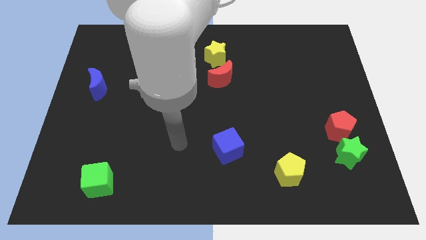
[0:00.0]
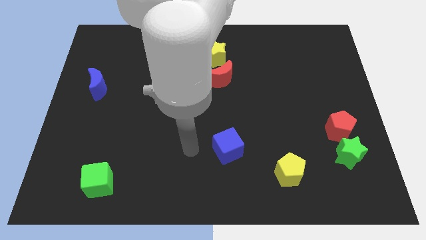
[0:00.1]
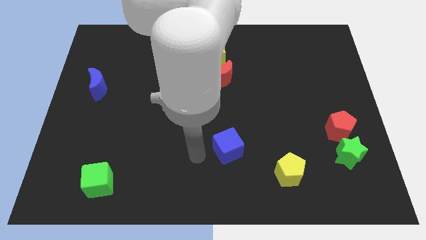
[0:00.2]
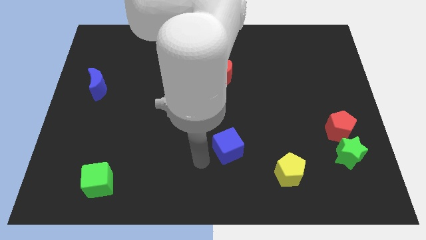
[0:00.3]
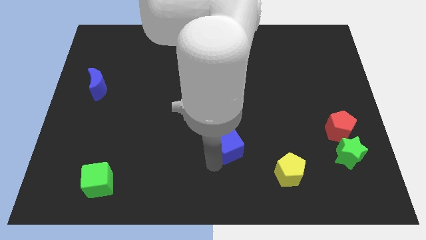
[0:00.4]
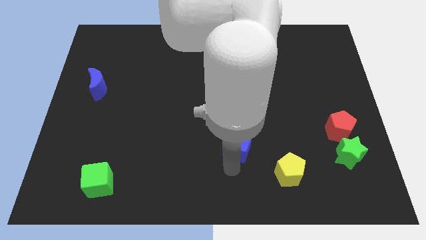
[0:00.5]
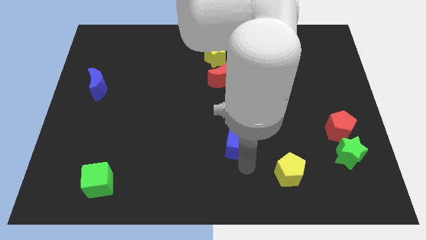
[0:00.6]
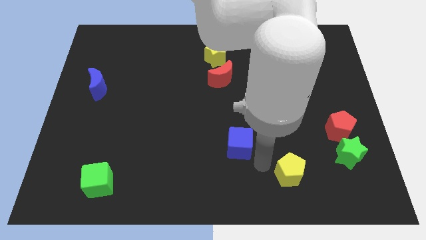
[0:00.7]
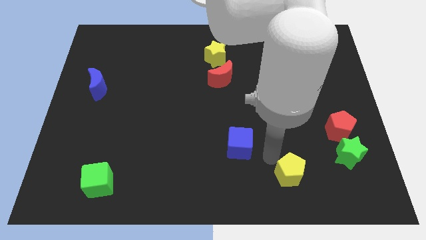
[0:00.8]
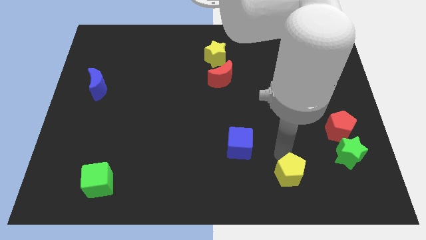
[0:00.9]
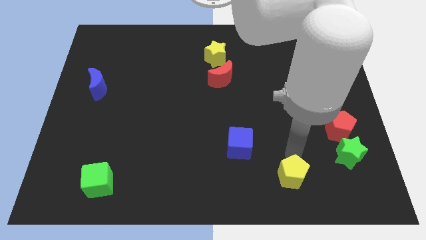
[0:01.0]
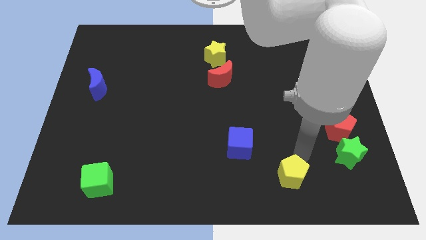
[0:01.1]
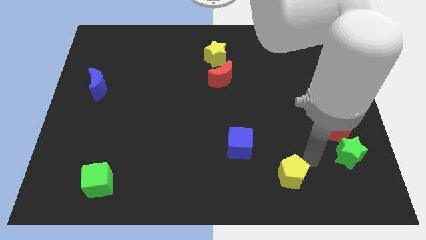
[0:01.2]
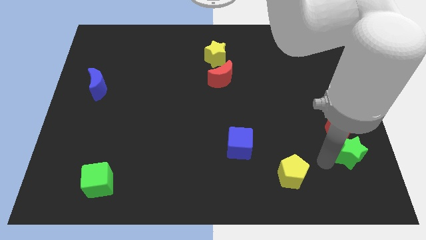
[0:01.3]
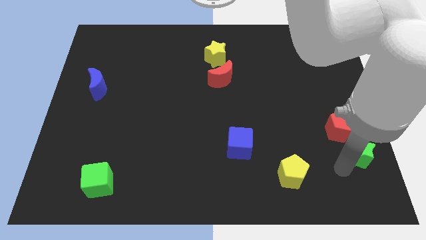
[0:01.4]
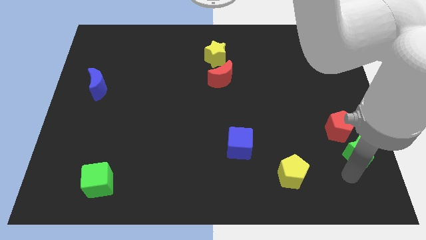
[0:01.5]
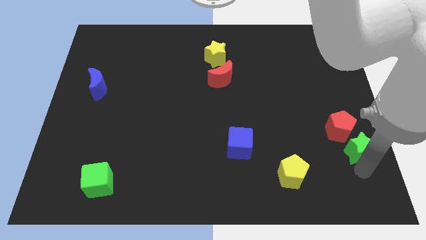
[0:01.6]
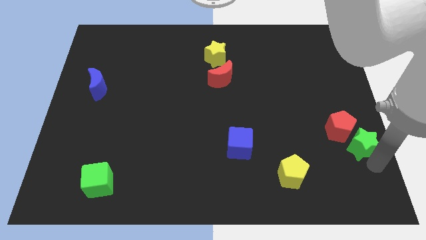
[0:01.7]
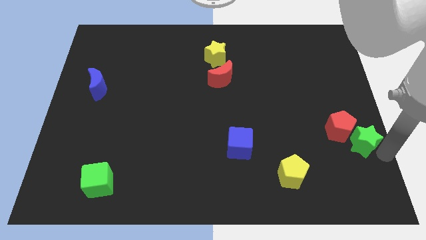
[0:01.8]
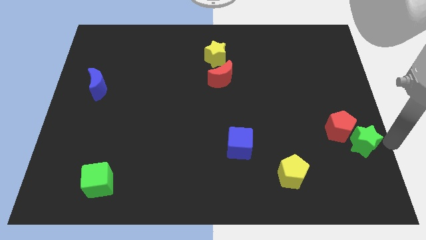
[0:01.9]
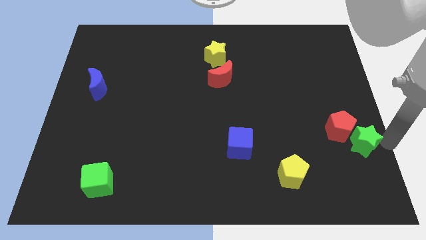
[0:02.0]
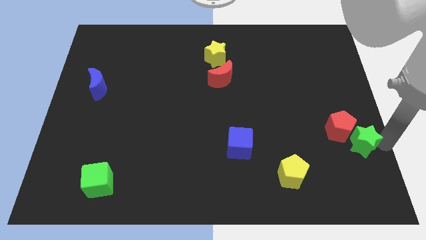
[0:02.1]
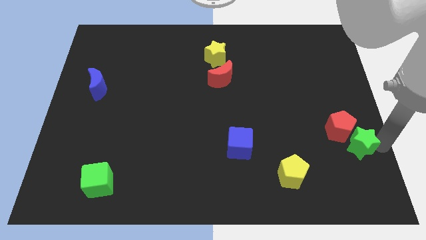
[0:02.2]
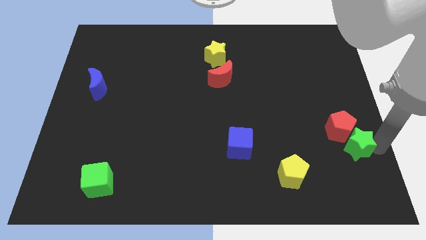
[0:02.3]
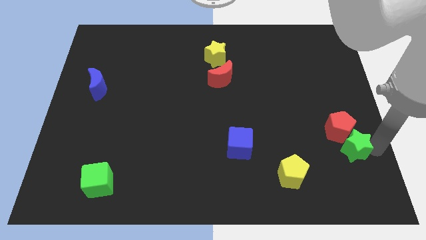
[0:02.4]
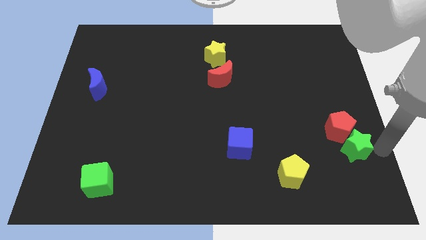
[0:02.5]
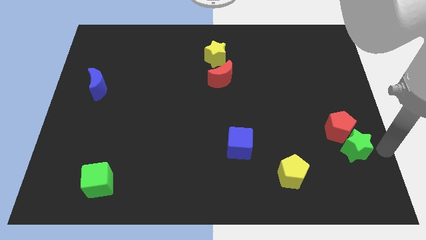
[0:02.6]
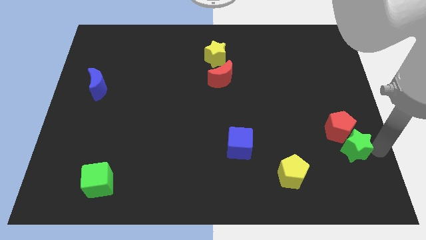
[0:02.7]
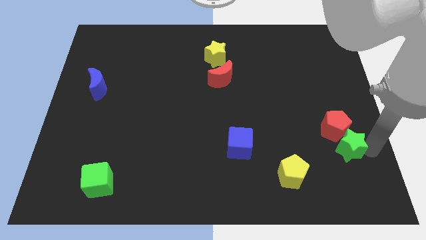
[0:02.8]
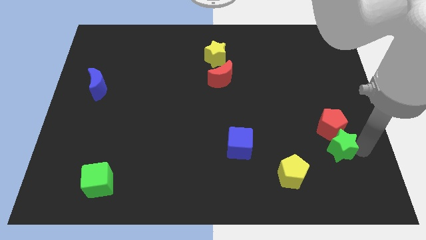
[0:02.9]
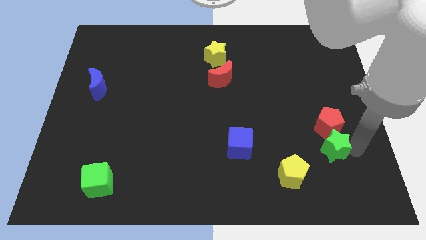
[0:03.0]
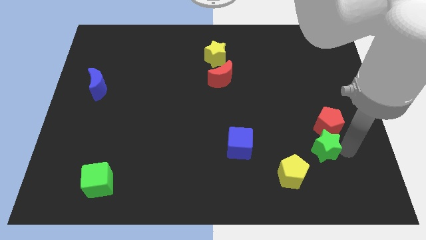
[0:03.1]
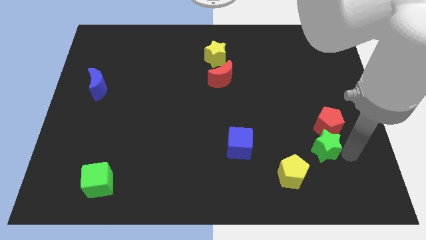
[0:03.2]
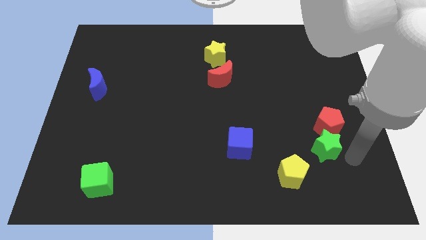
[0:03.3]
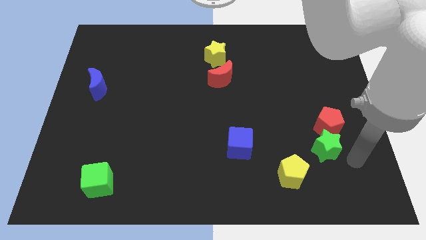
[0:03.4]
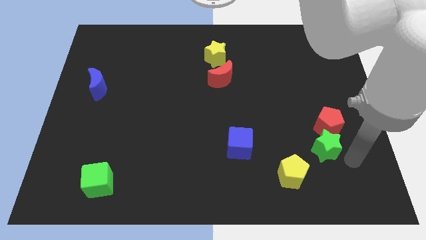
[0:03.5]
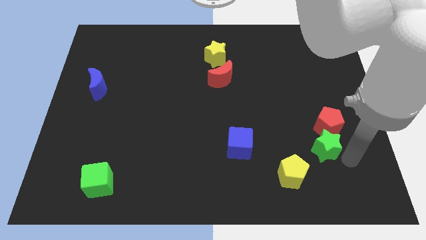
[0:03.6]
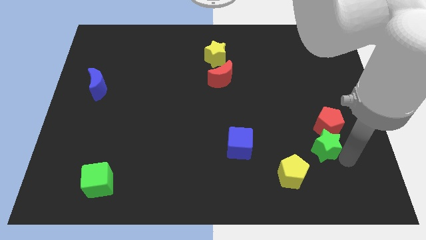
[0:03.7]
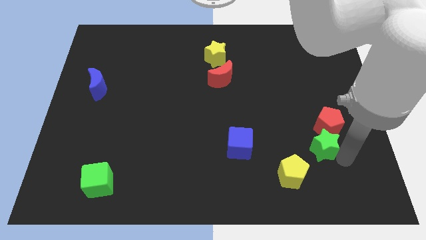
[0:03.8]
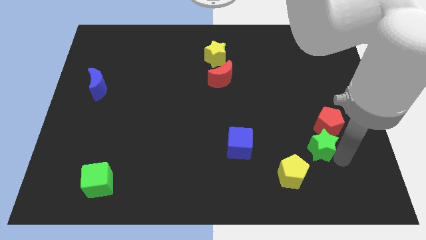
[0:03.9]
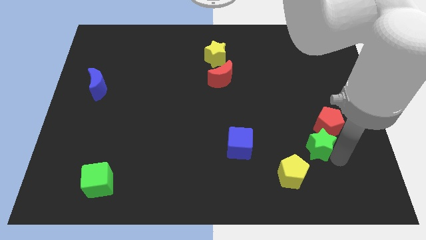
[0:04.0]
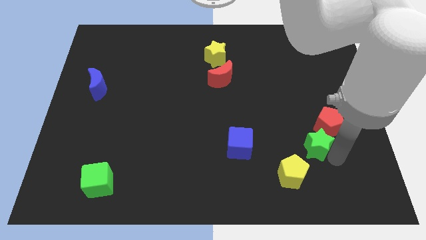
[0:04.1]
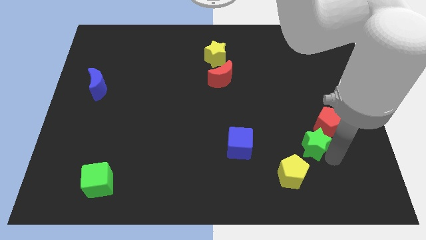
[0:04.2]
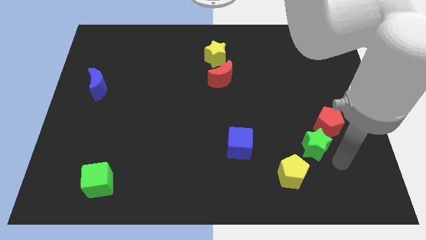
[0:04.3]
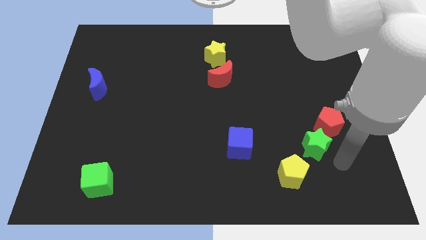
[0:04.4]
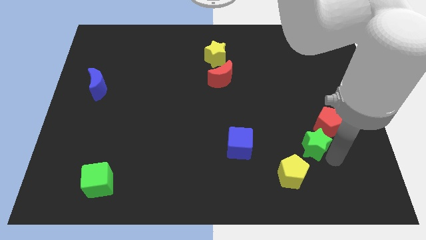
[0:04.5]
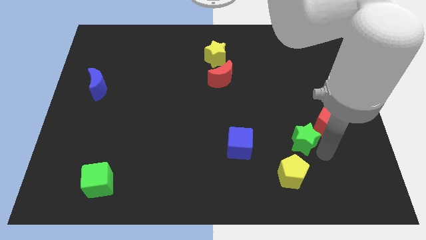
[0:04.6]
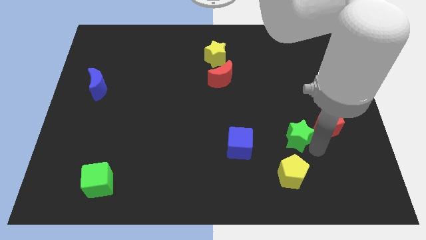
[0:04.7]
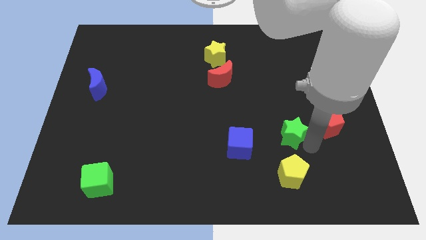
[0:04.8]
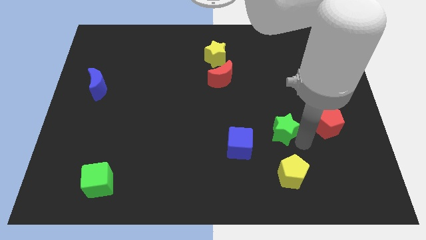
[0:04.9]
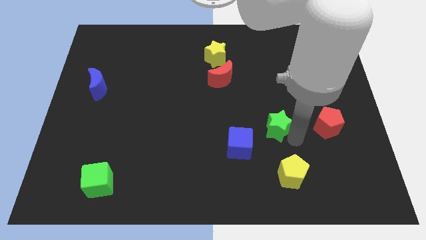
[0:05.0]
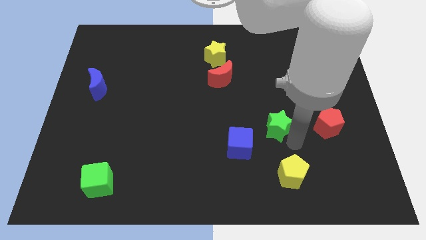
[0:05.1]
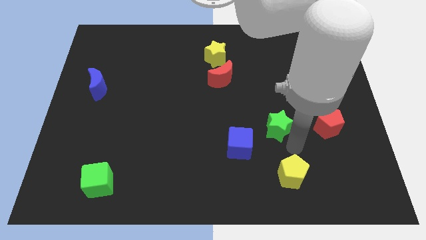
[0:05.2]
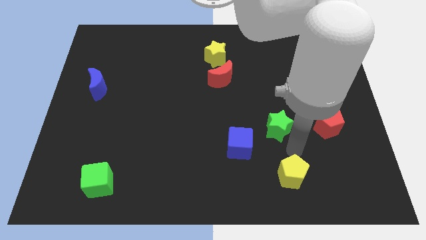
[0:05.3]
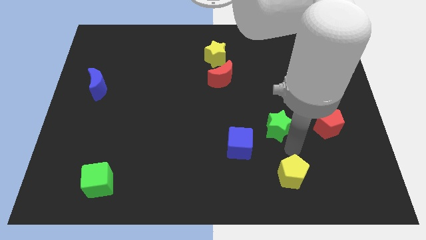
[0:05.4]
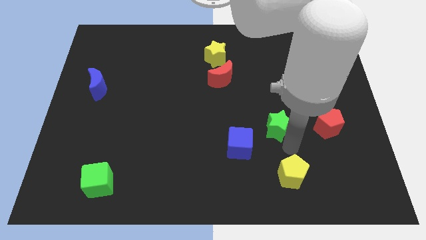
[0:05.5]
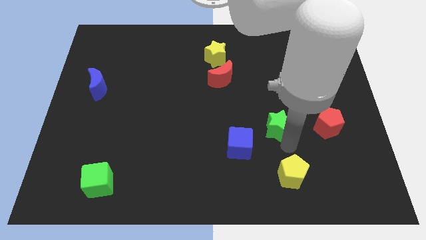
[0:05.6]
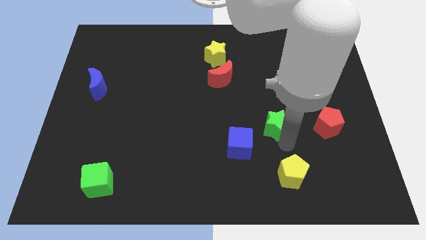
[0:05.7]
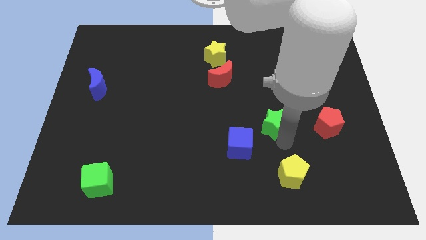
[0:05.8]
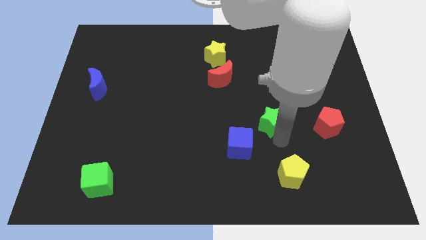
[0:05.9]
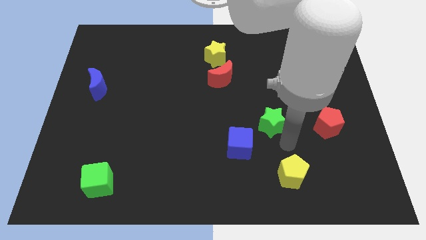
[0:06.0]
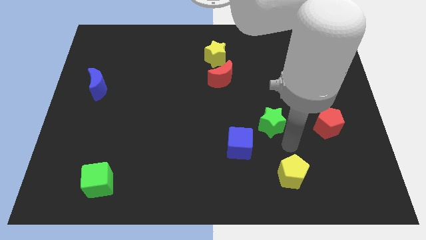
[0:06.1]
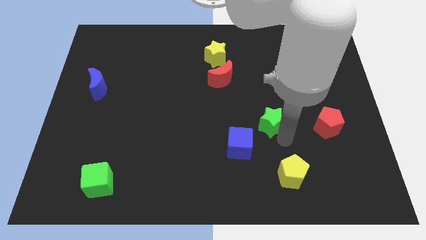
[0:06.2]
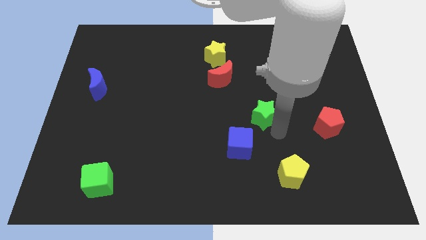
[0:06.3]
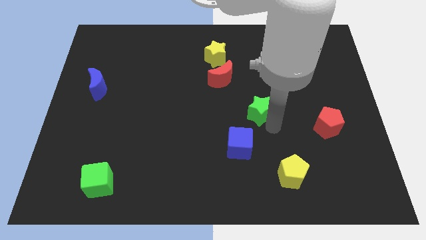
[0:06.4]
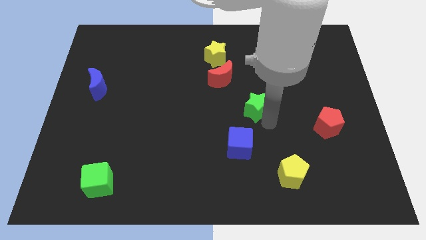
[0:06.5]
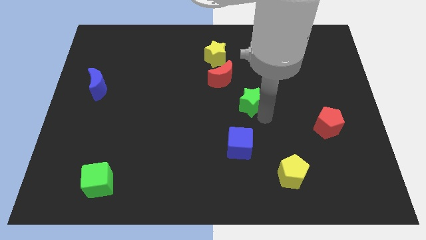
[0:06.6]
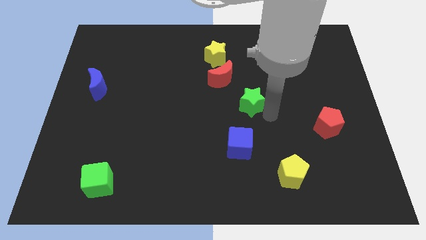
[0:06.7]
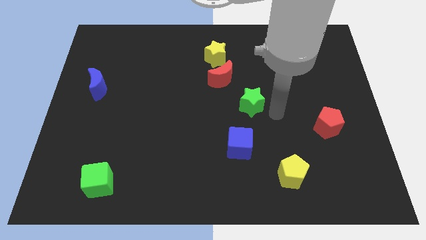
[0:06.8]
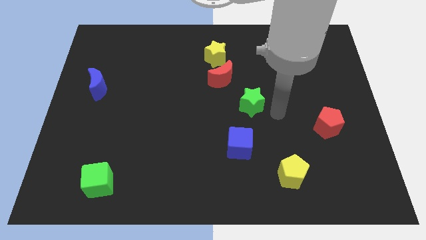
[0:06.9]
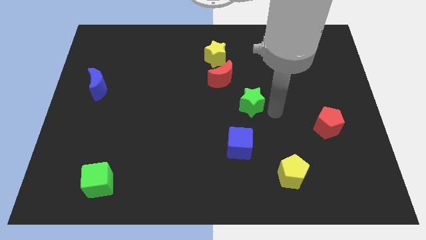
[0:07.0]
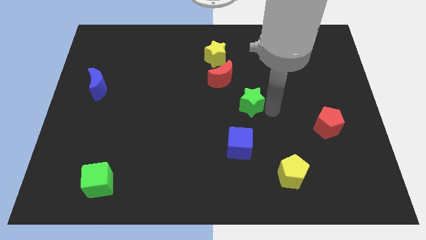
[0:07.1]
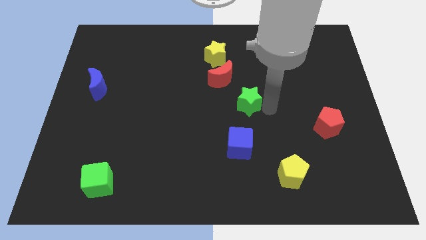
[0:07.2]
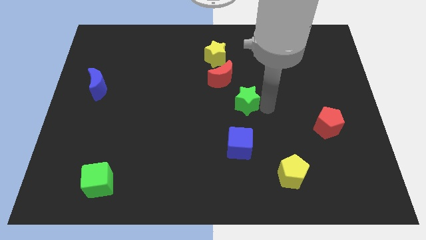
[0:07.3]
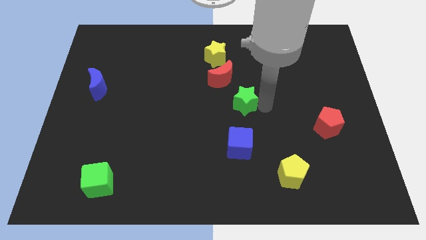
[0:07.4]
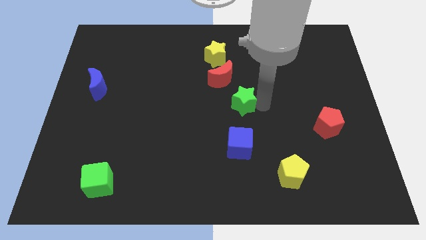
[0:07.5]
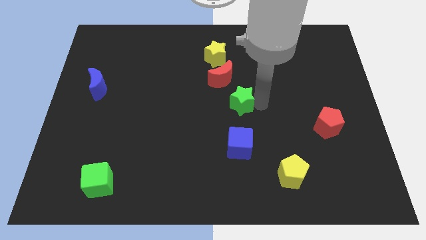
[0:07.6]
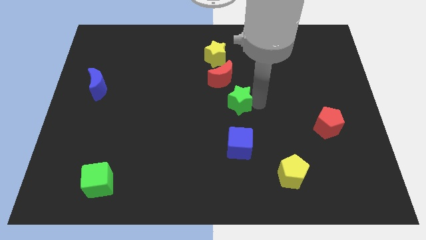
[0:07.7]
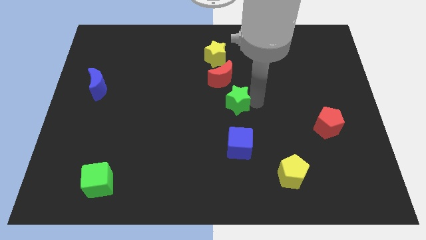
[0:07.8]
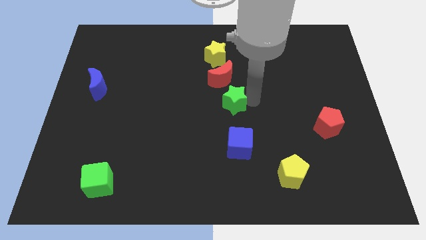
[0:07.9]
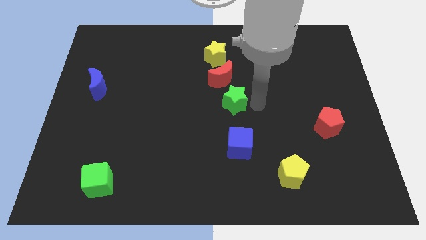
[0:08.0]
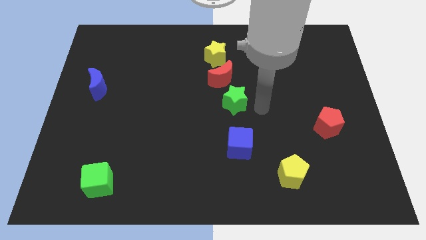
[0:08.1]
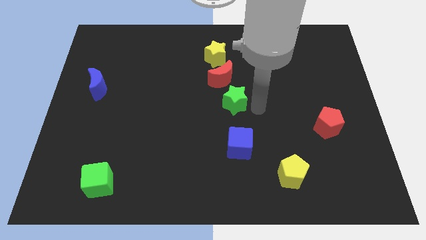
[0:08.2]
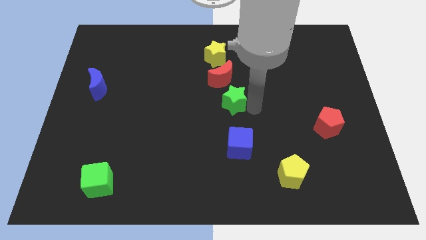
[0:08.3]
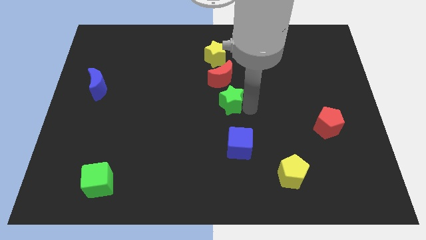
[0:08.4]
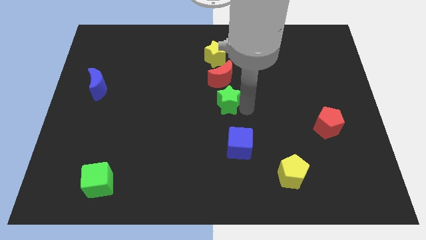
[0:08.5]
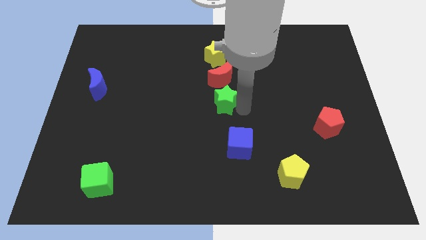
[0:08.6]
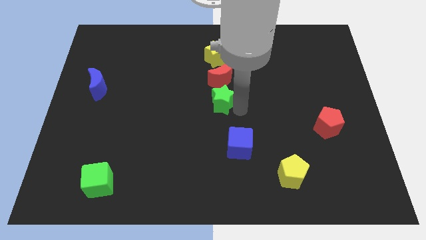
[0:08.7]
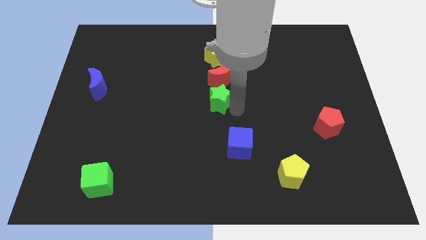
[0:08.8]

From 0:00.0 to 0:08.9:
put the green star to the bottom left of the red moon
